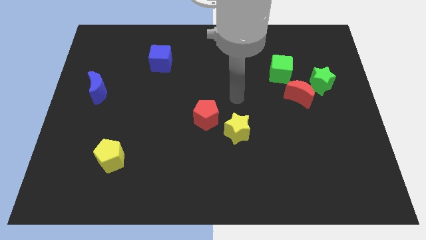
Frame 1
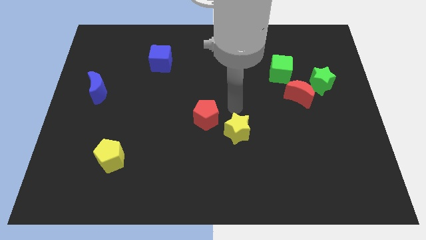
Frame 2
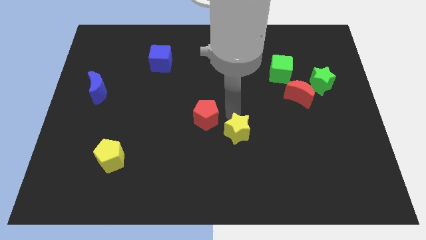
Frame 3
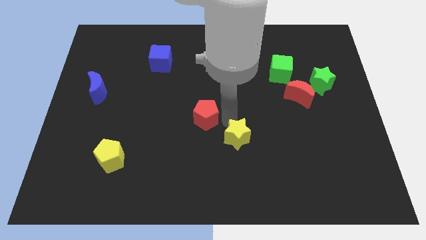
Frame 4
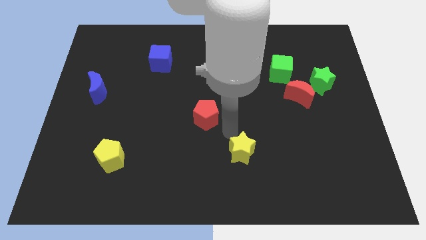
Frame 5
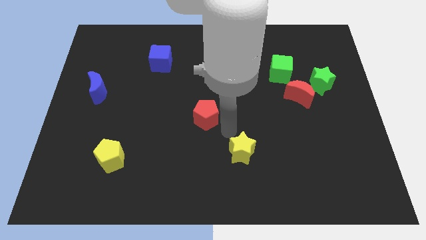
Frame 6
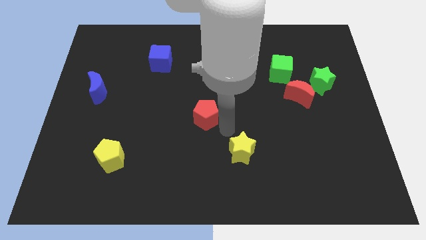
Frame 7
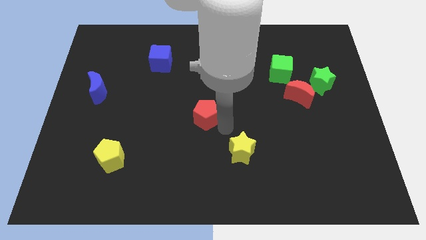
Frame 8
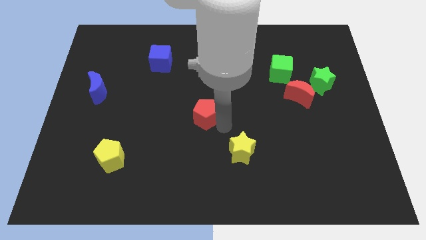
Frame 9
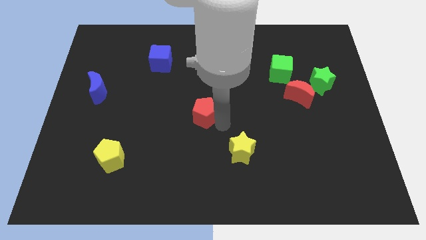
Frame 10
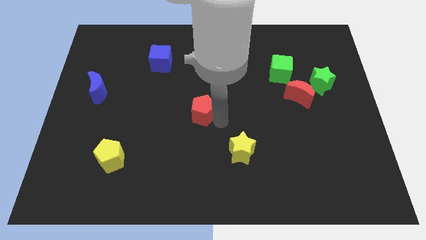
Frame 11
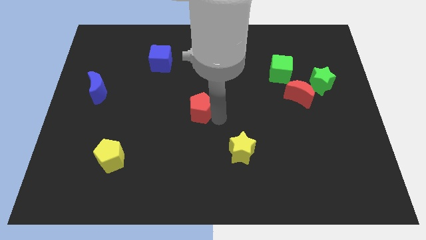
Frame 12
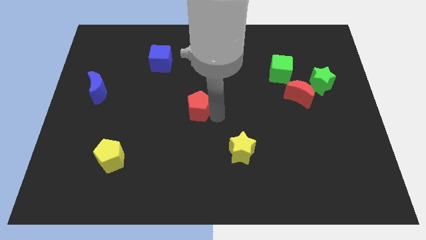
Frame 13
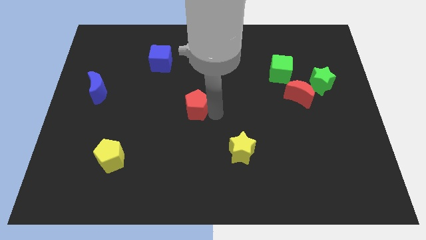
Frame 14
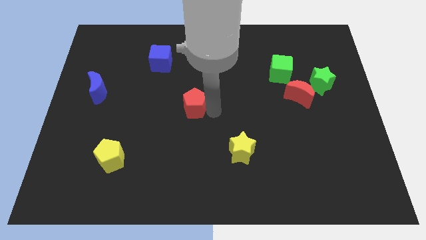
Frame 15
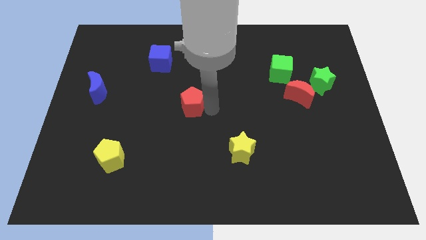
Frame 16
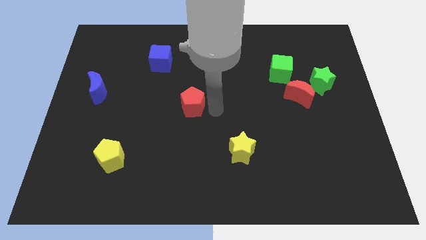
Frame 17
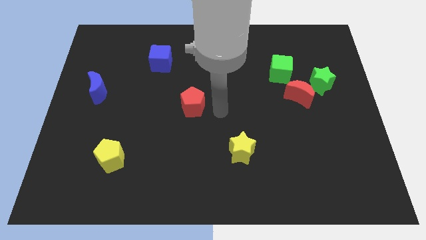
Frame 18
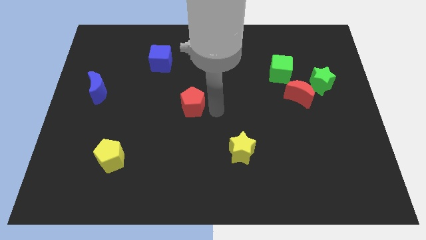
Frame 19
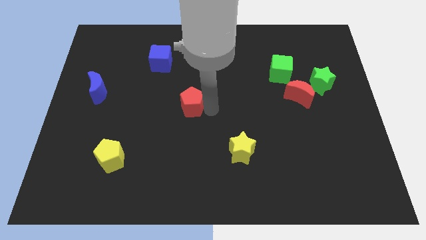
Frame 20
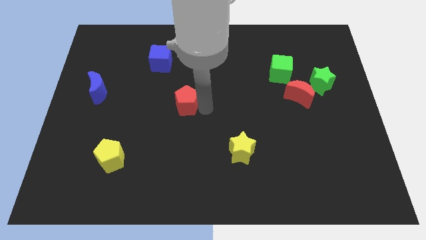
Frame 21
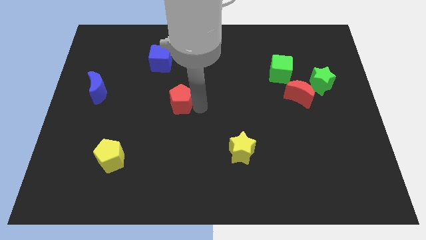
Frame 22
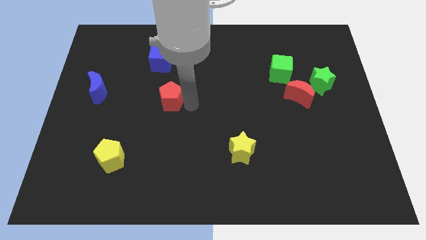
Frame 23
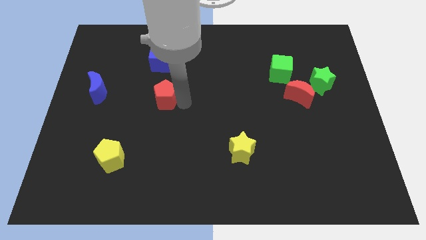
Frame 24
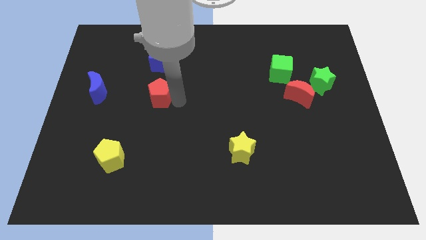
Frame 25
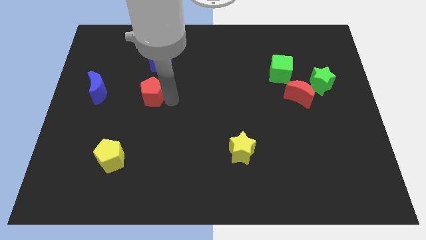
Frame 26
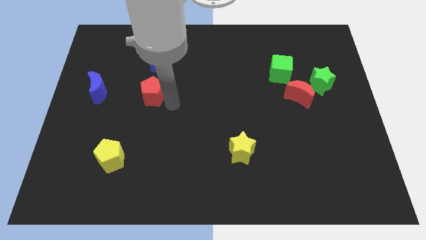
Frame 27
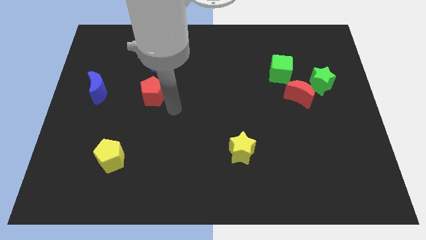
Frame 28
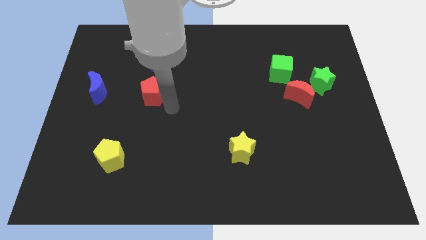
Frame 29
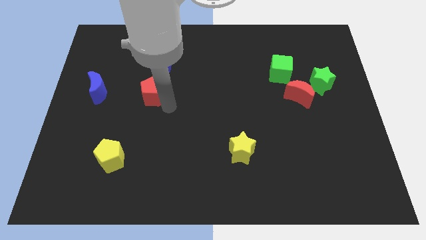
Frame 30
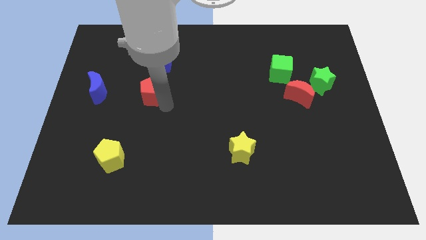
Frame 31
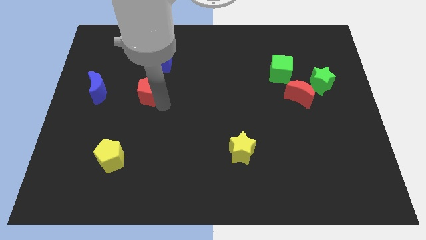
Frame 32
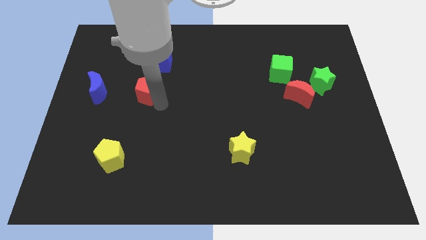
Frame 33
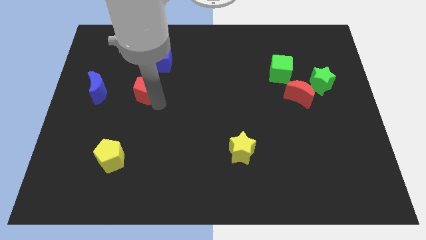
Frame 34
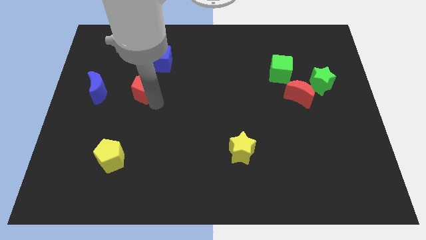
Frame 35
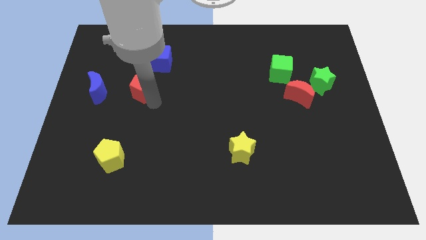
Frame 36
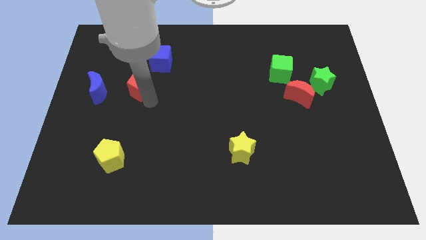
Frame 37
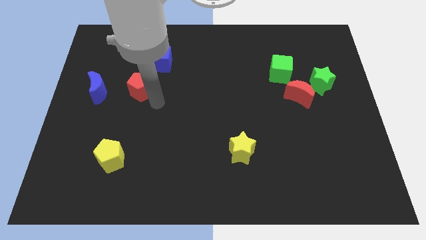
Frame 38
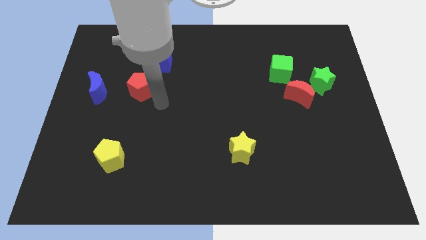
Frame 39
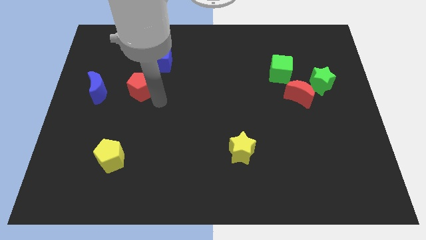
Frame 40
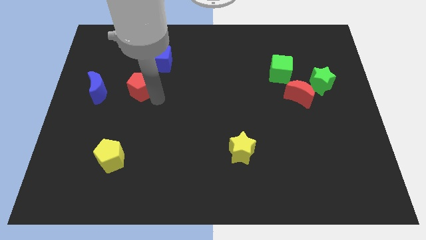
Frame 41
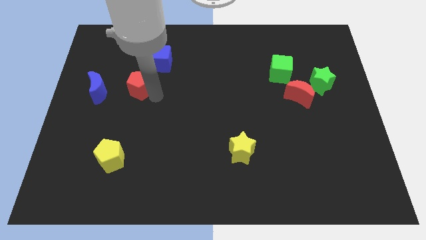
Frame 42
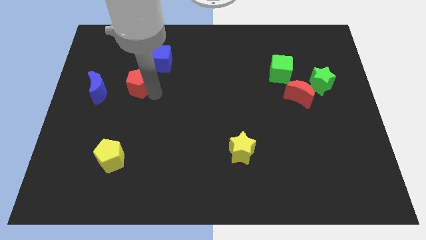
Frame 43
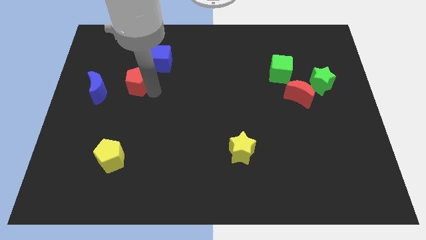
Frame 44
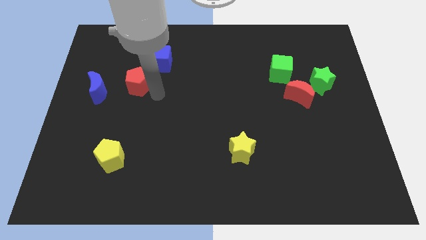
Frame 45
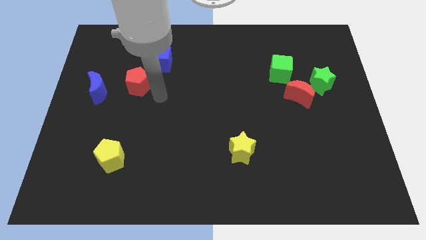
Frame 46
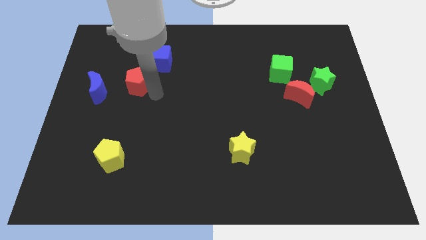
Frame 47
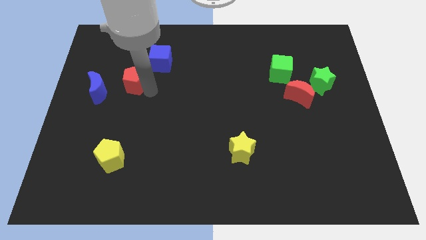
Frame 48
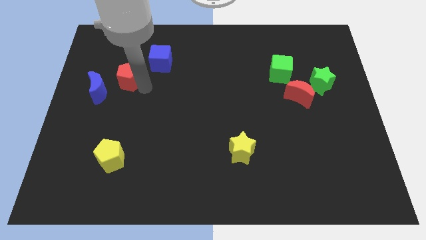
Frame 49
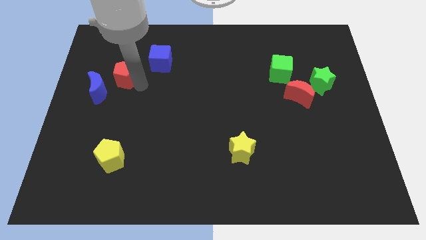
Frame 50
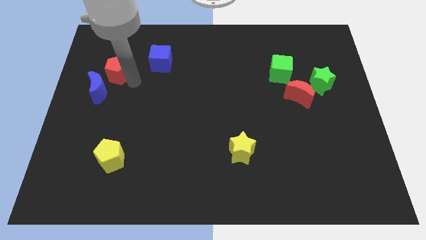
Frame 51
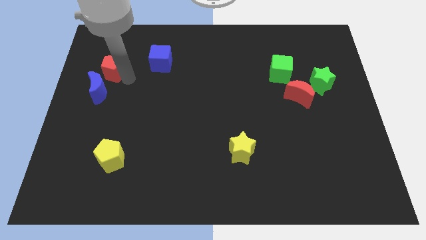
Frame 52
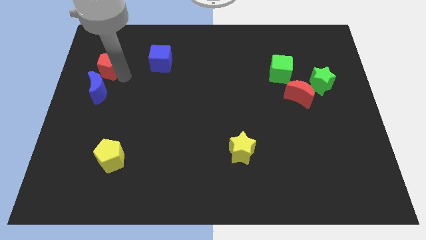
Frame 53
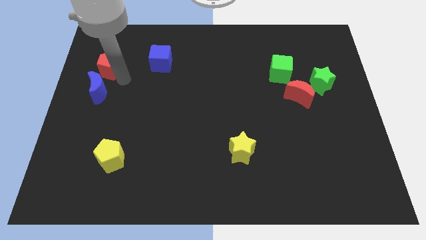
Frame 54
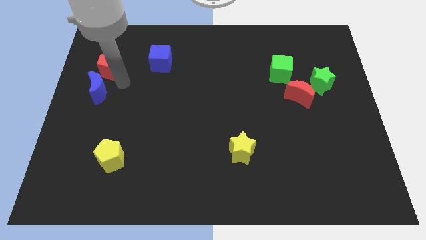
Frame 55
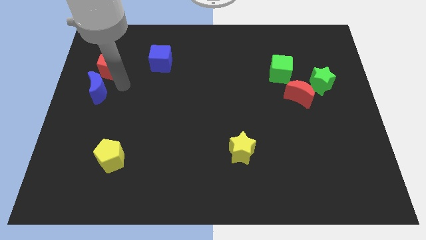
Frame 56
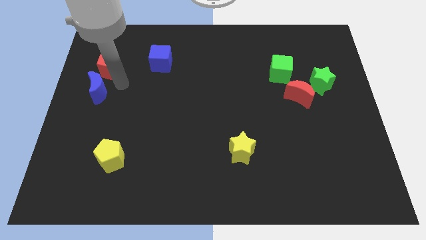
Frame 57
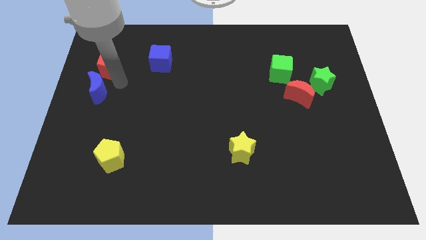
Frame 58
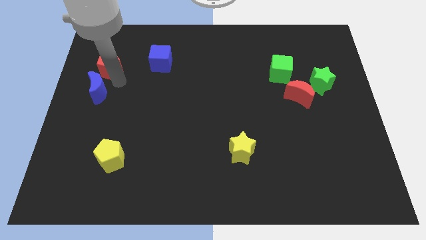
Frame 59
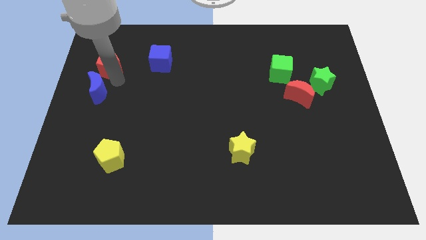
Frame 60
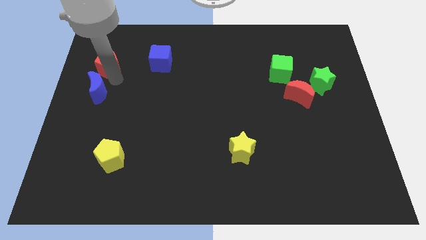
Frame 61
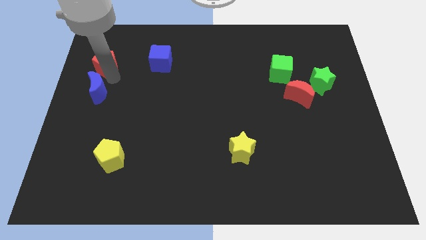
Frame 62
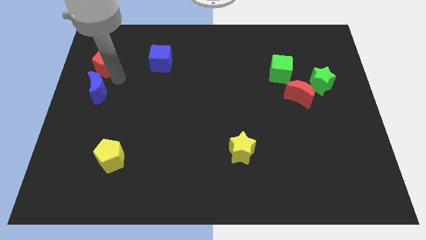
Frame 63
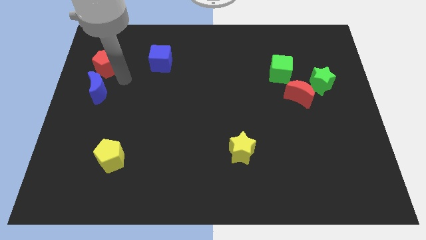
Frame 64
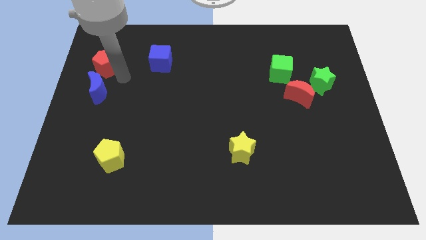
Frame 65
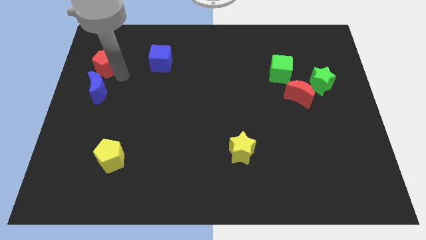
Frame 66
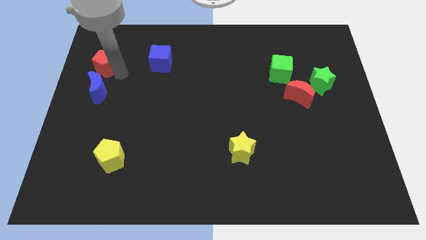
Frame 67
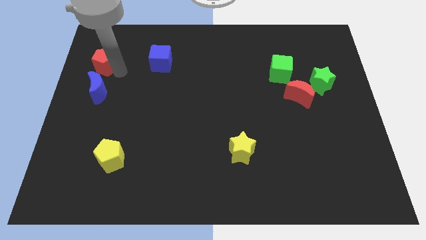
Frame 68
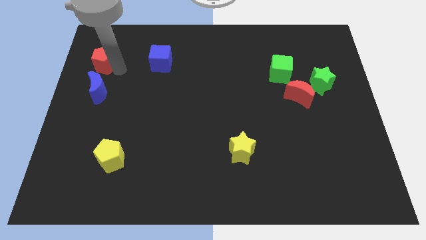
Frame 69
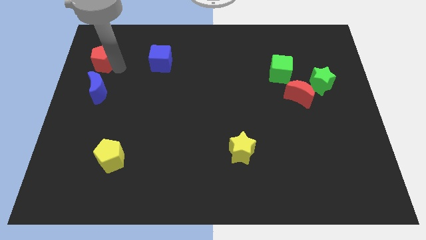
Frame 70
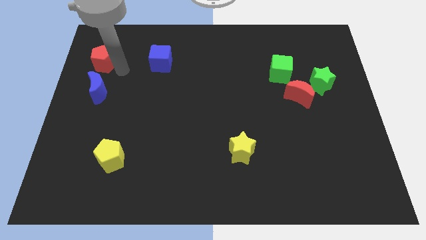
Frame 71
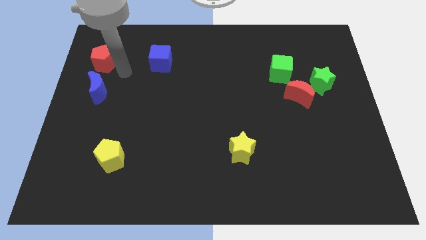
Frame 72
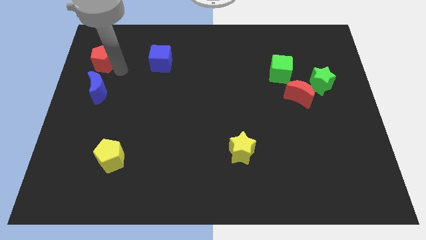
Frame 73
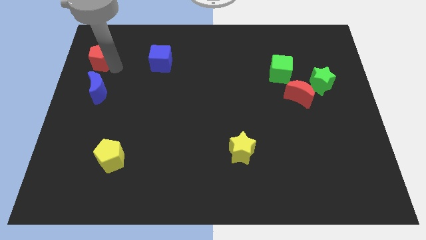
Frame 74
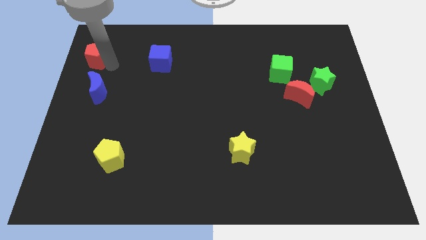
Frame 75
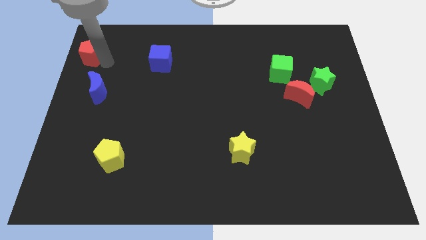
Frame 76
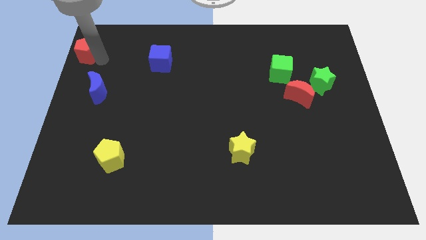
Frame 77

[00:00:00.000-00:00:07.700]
push the red pentagon to the upper left corner
